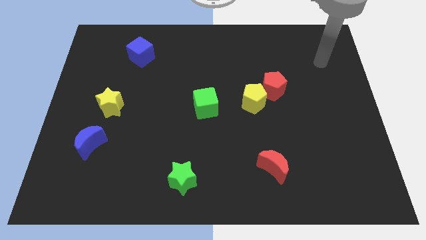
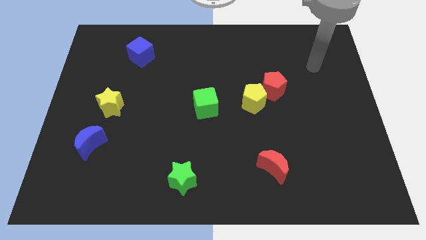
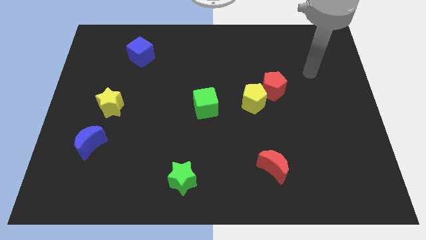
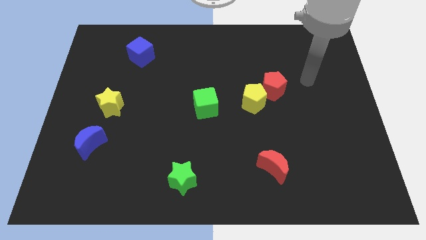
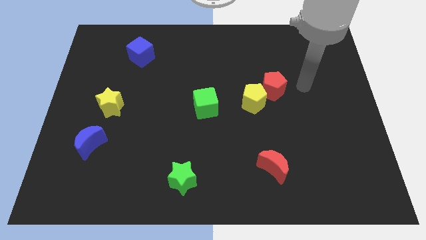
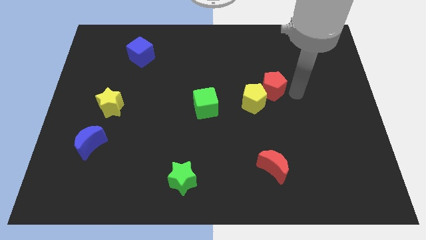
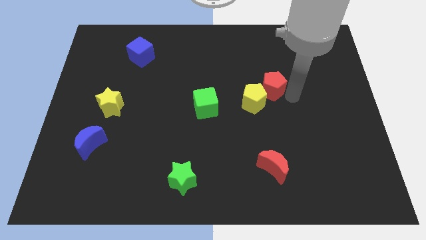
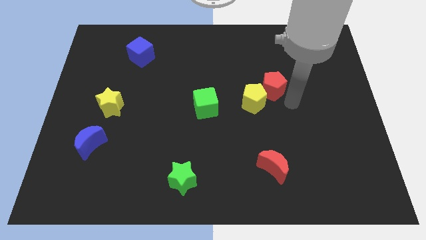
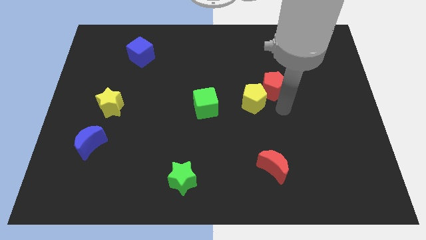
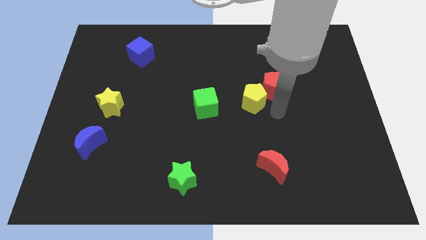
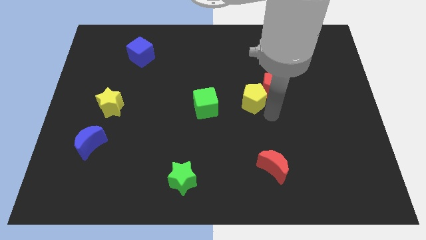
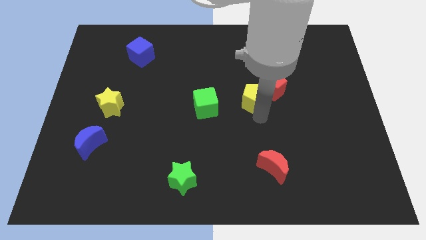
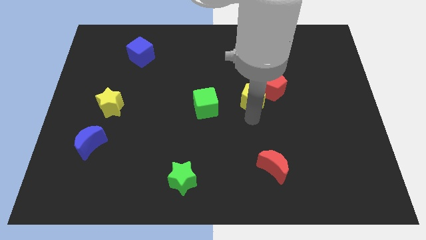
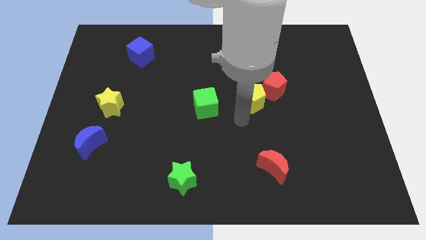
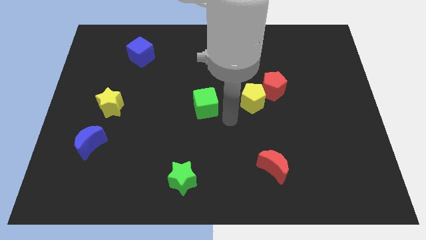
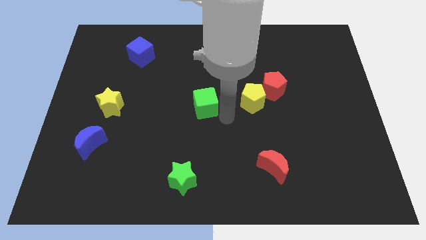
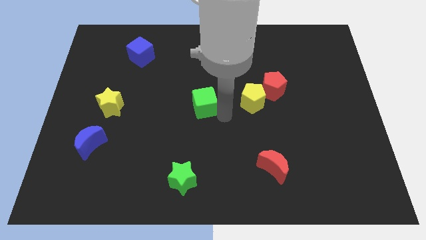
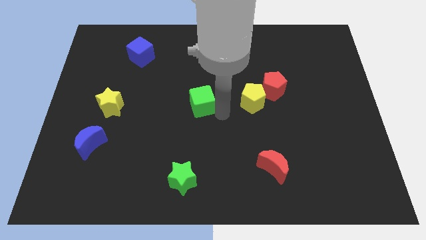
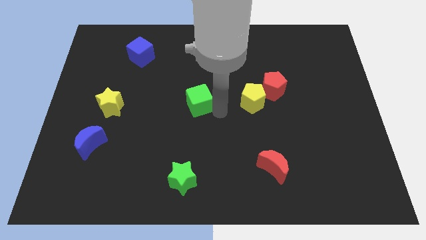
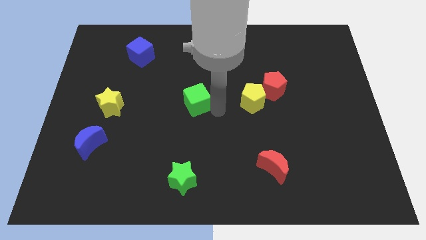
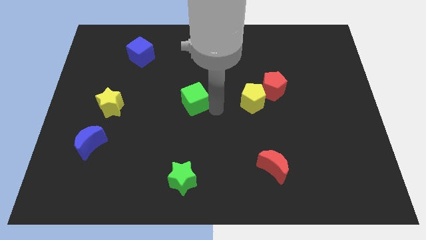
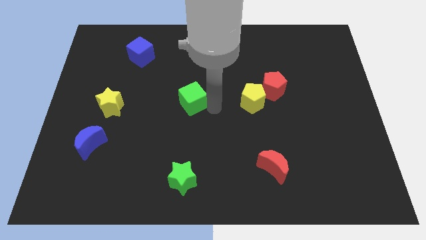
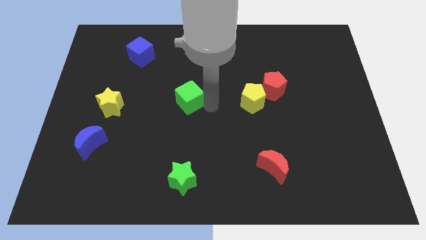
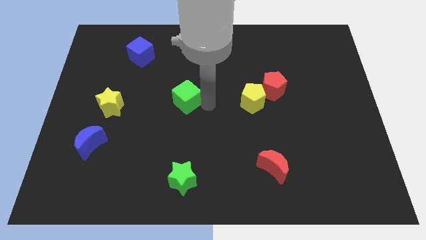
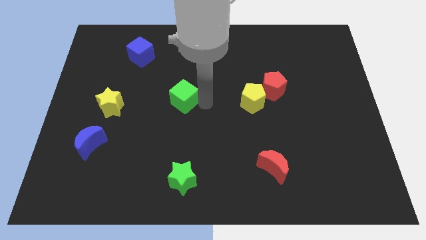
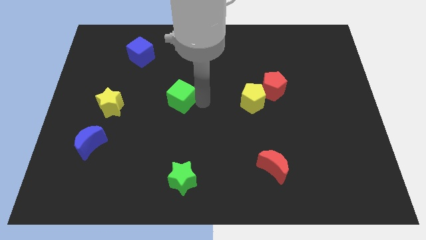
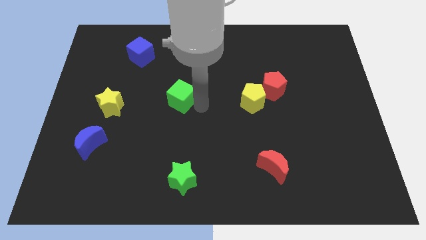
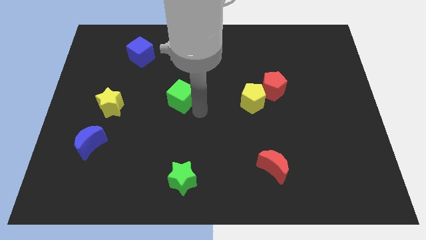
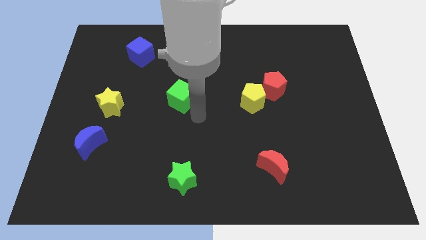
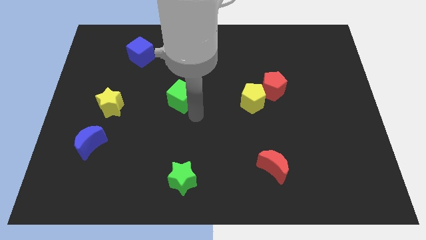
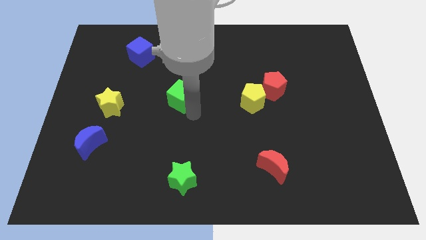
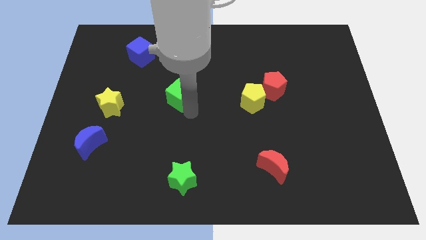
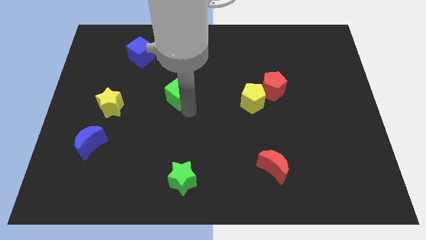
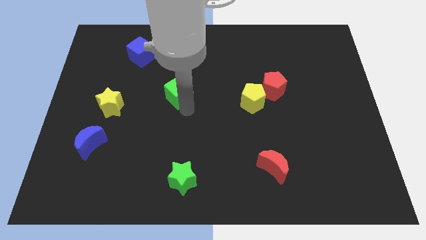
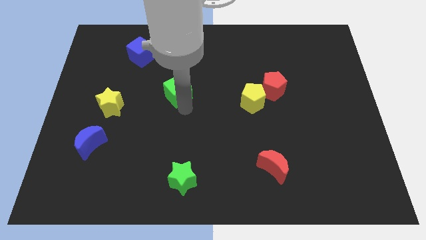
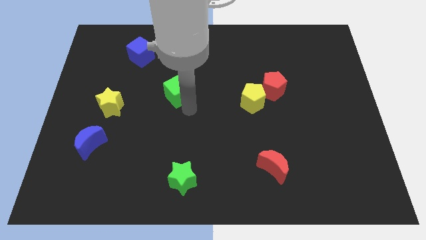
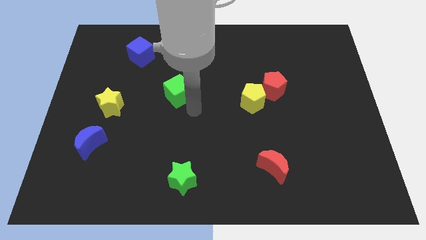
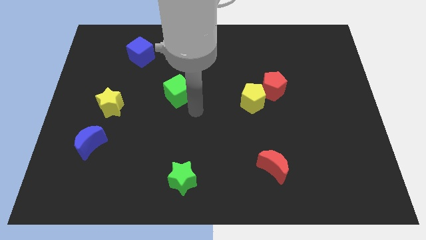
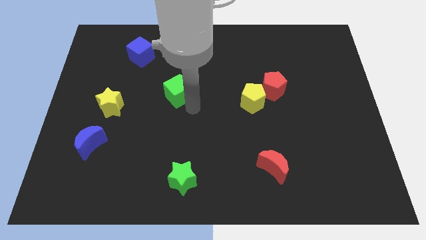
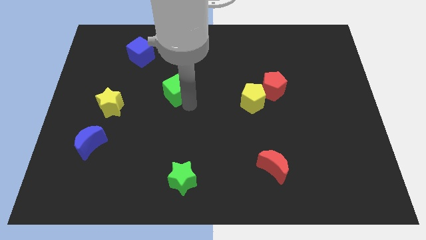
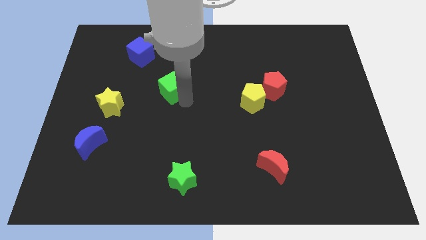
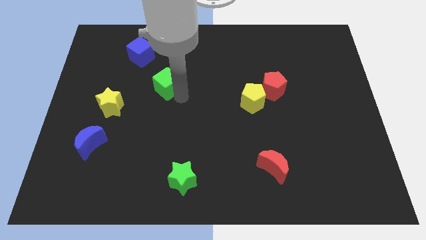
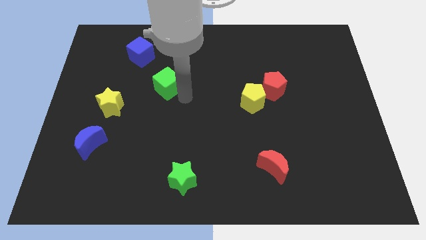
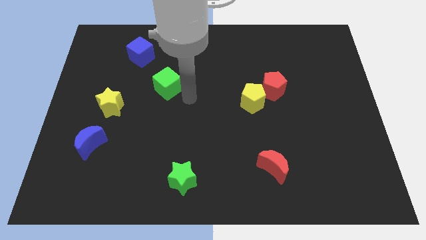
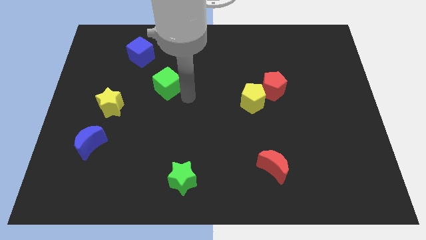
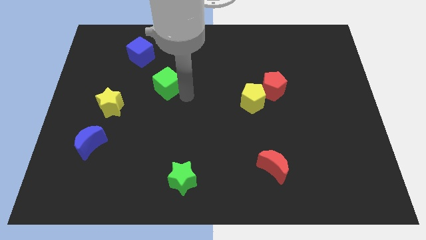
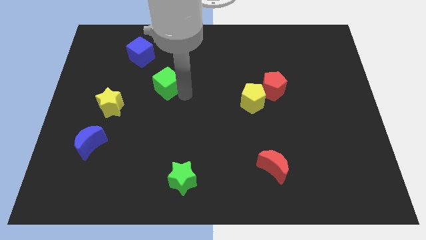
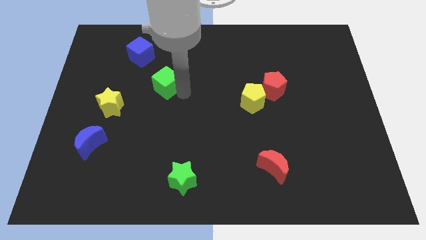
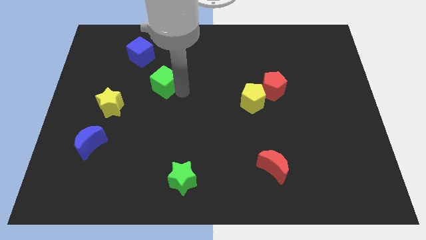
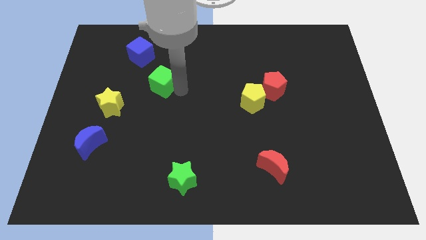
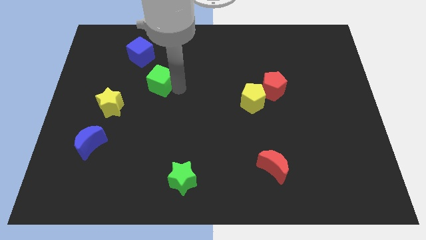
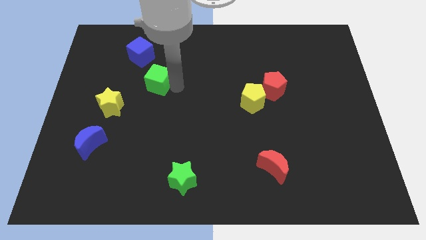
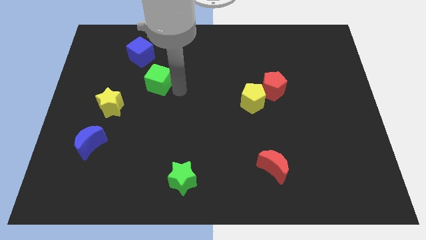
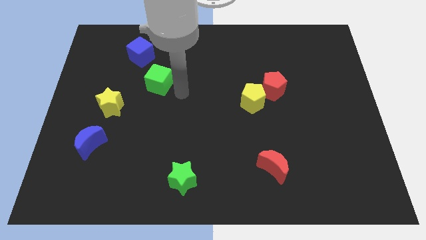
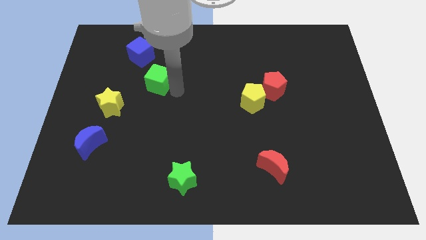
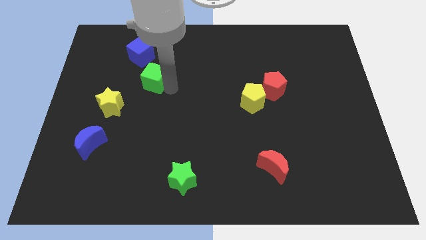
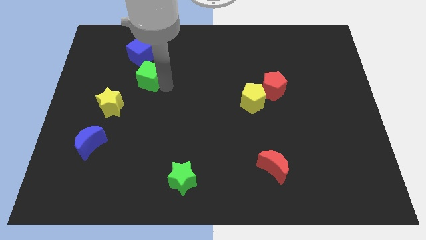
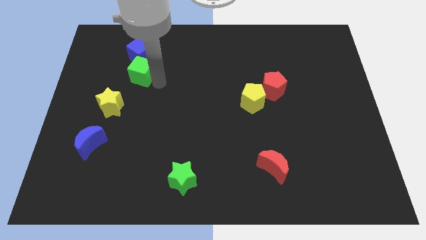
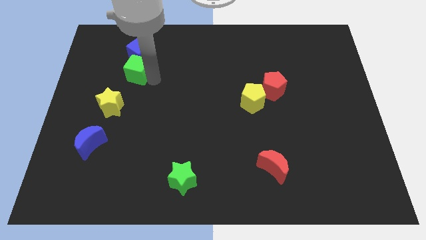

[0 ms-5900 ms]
put the green cube to the bottom left side of the blue cube

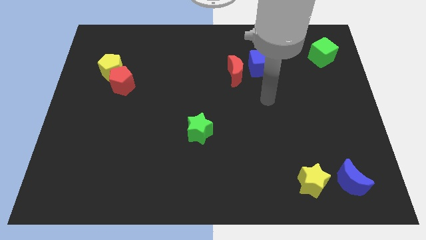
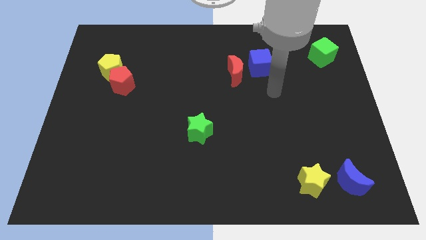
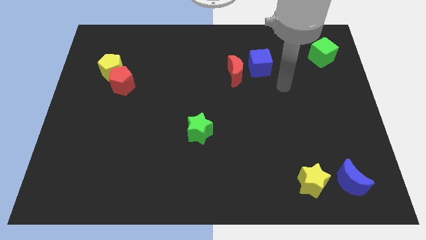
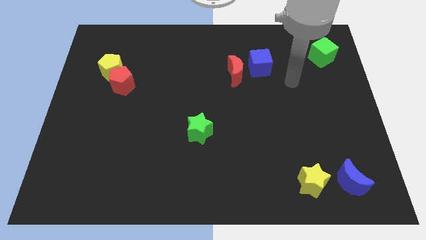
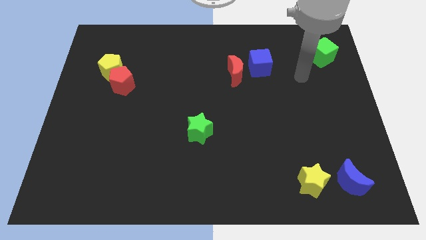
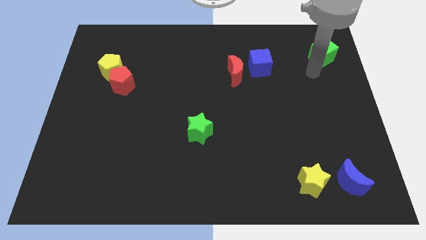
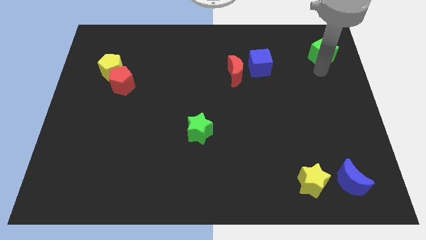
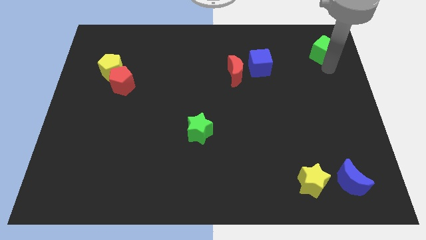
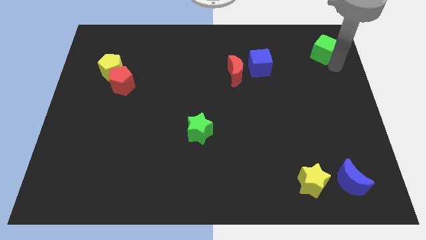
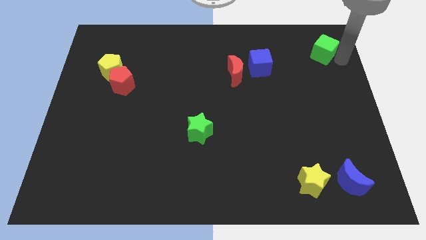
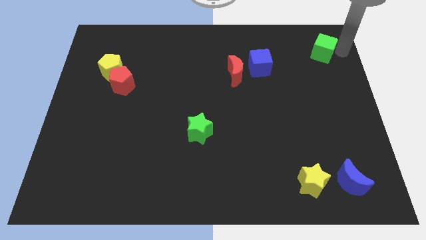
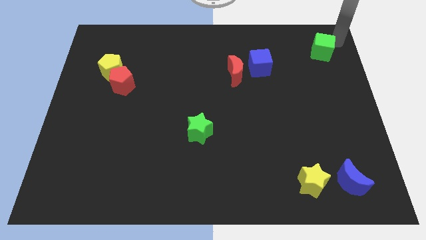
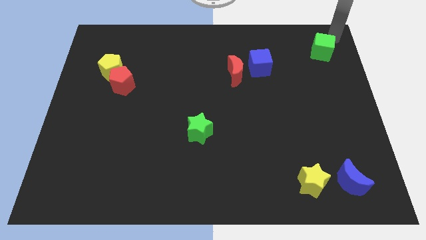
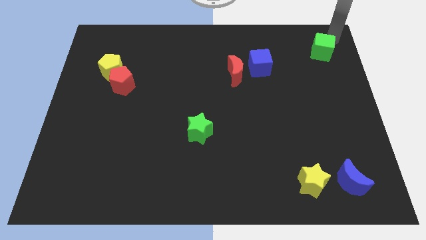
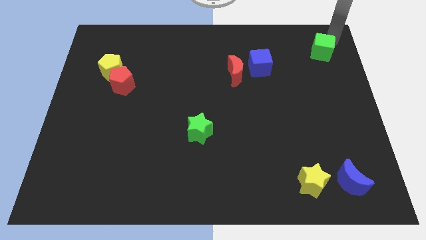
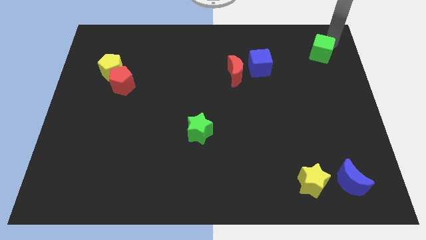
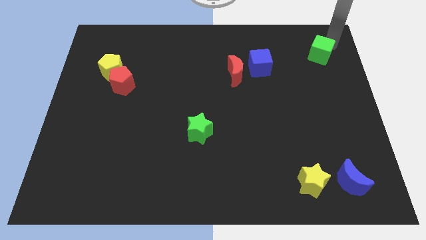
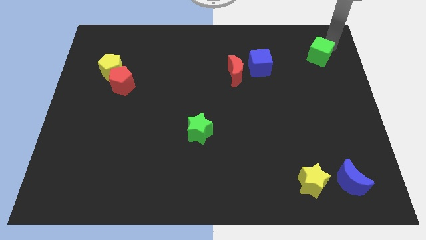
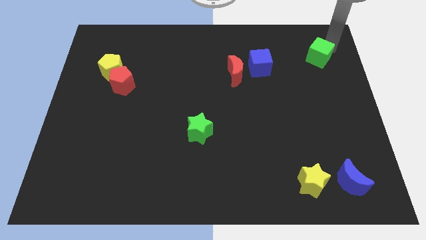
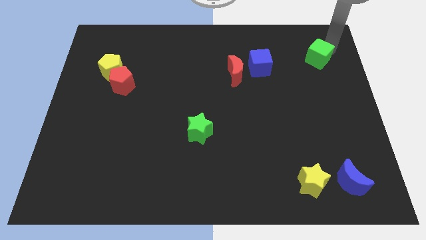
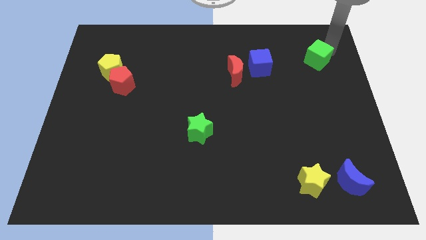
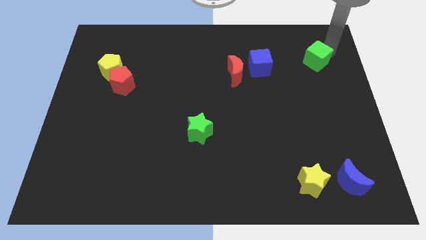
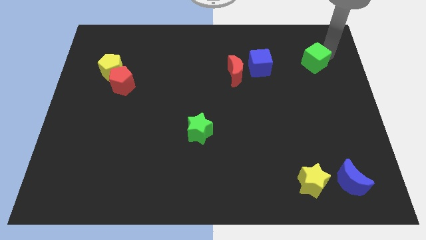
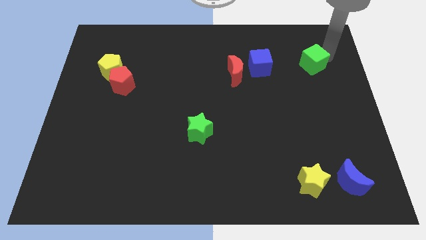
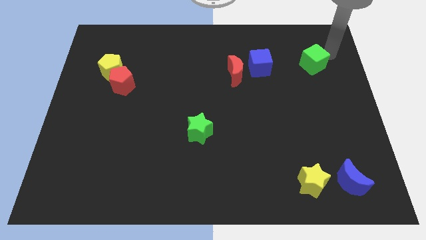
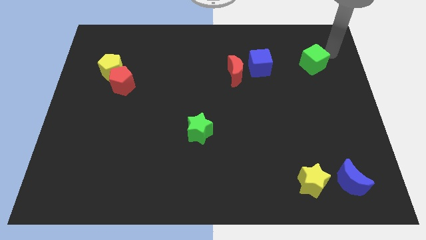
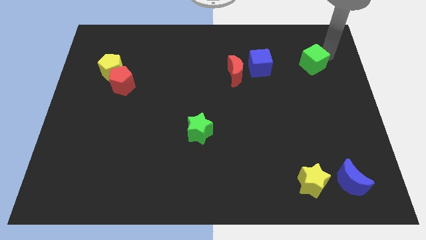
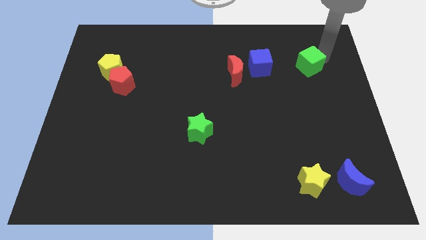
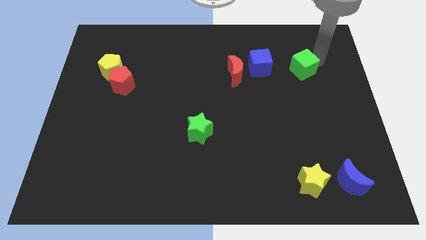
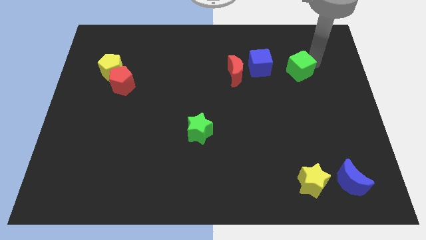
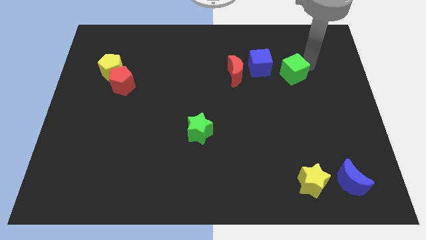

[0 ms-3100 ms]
slide the green cube diagonally down and to the right of the blue cube
